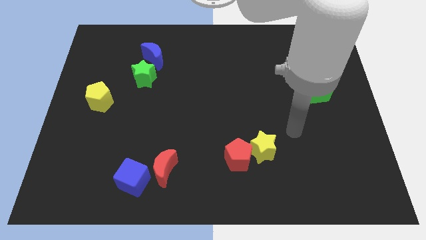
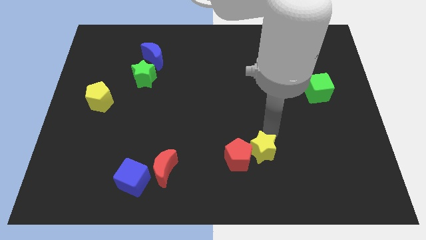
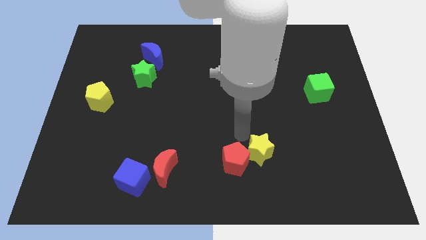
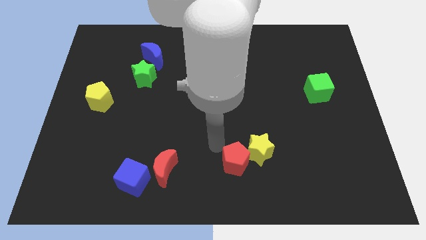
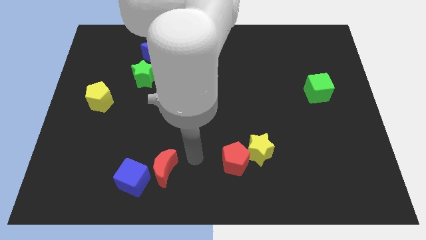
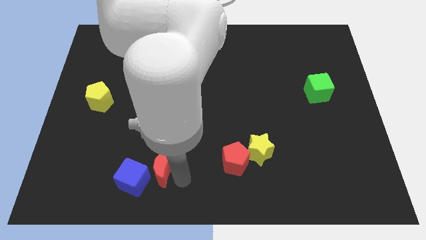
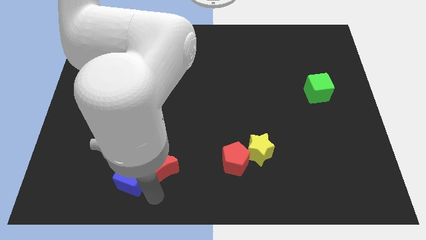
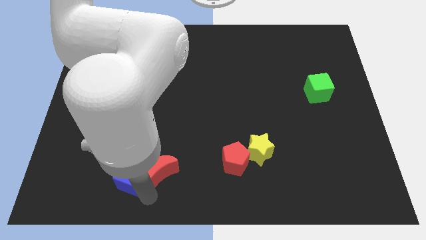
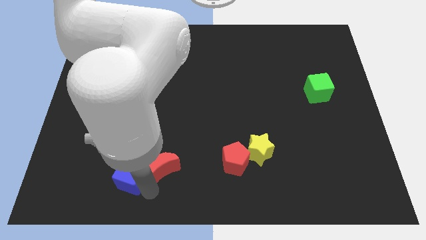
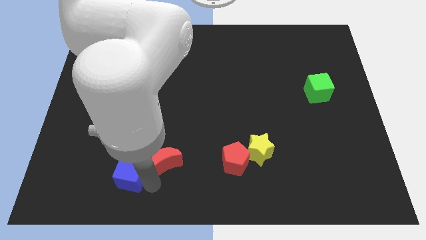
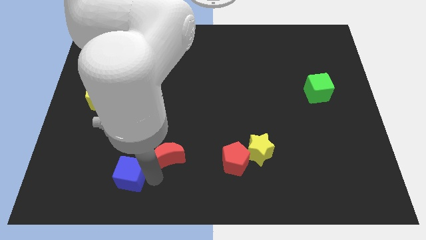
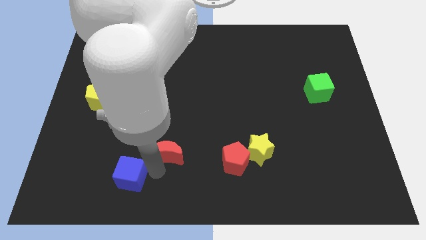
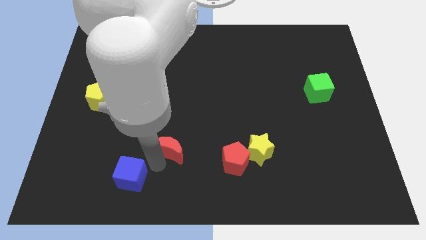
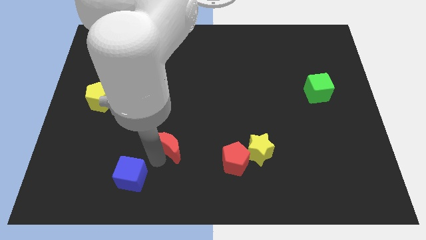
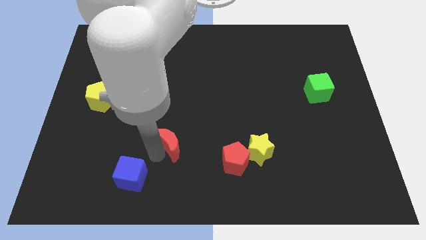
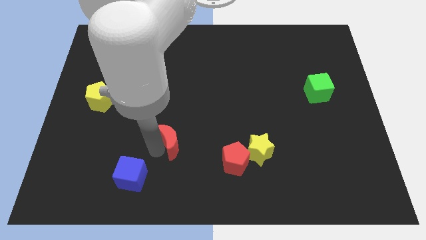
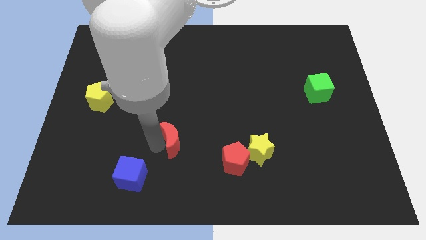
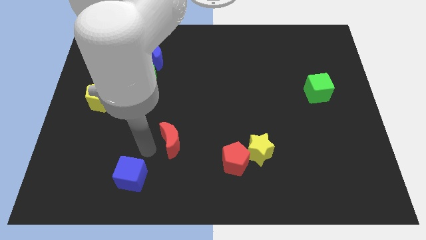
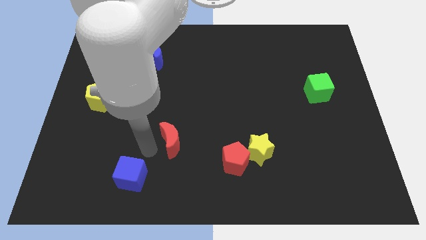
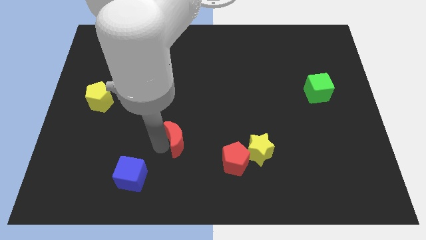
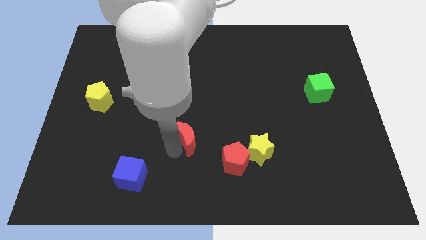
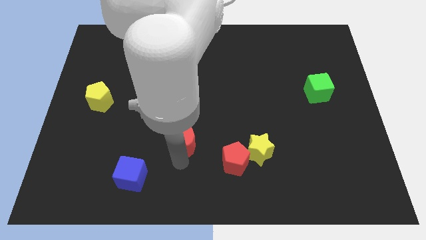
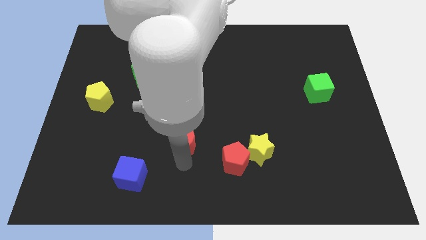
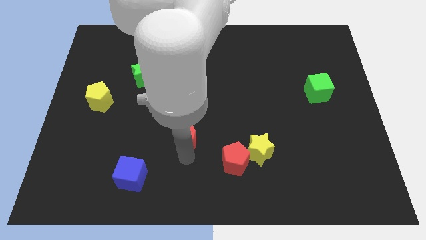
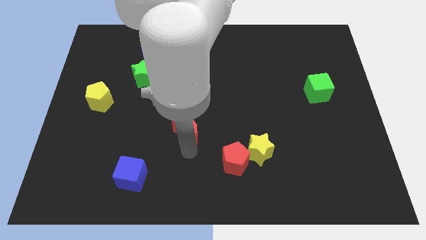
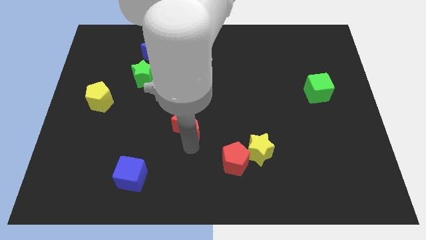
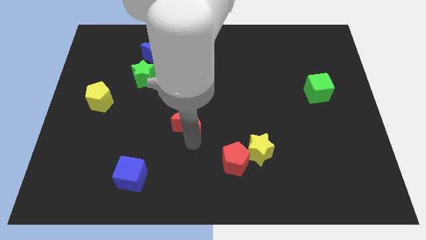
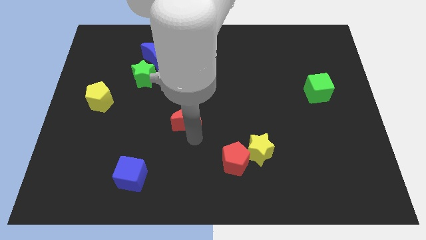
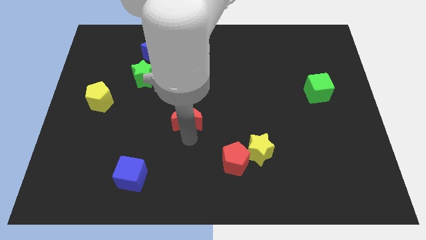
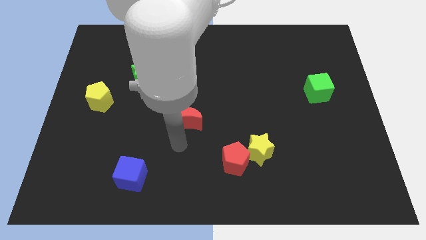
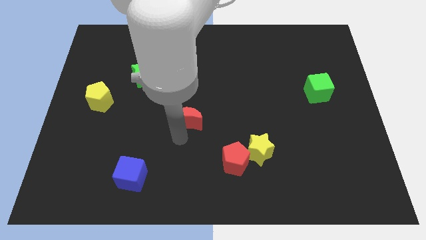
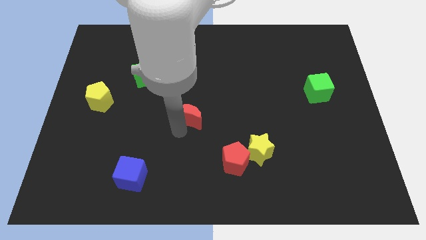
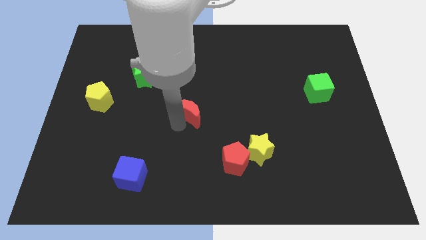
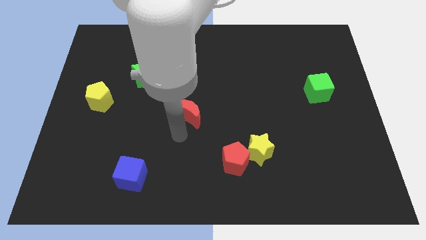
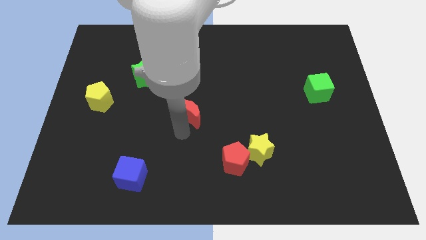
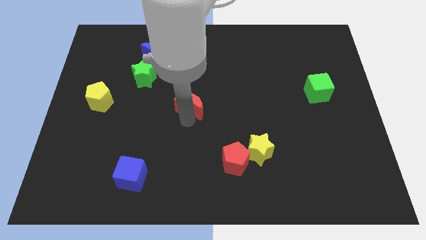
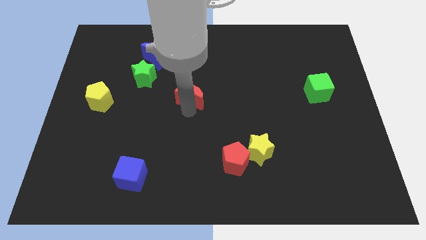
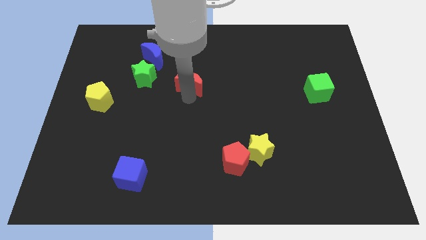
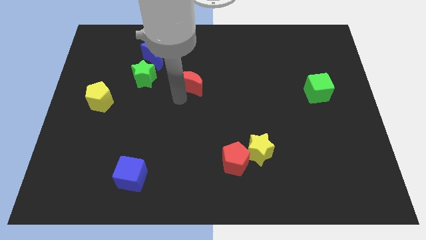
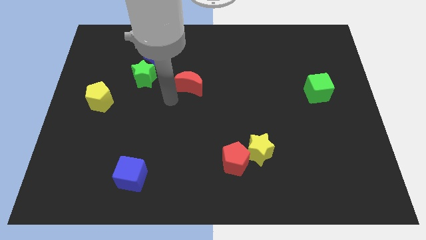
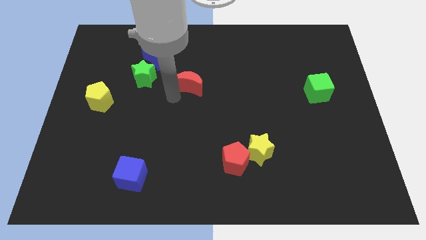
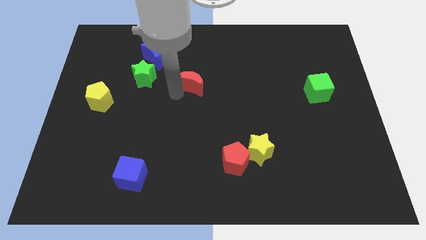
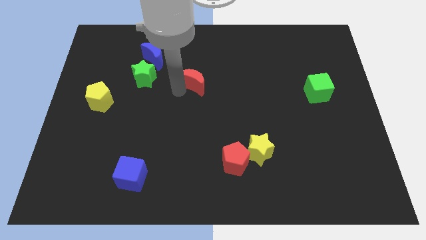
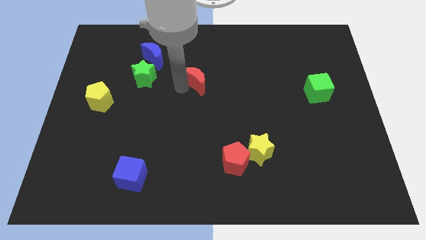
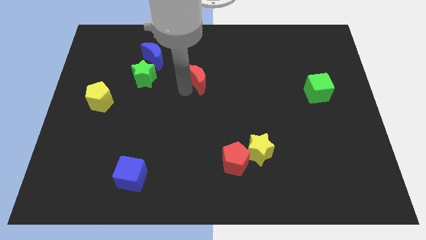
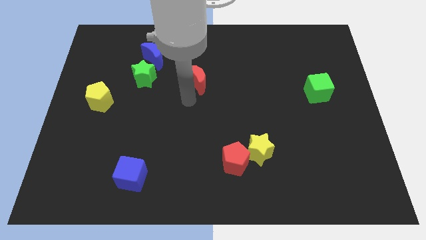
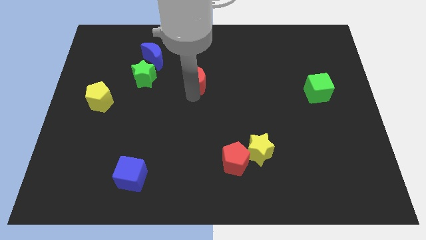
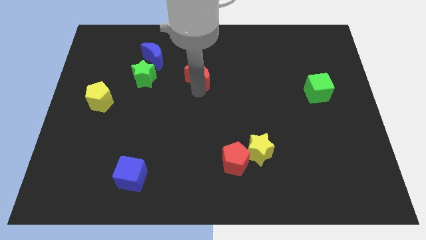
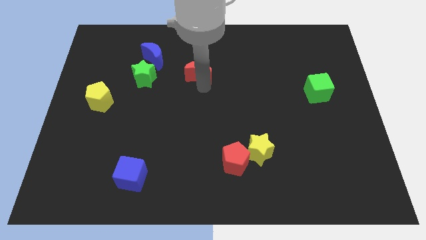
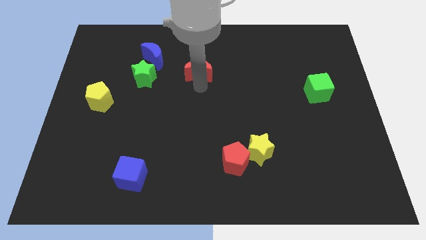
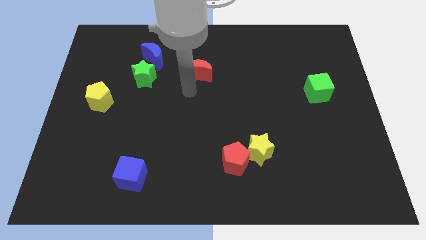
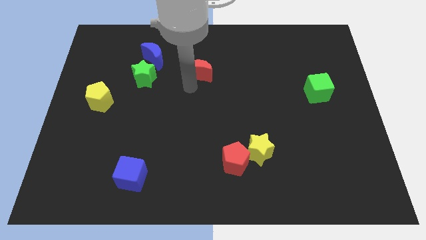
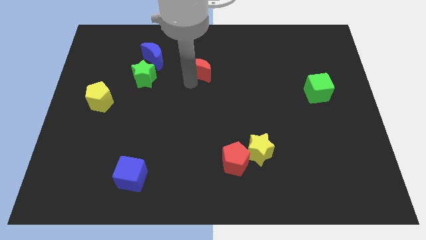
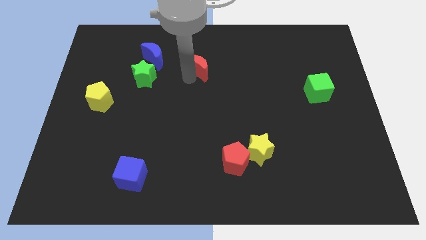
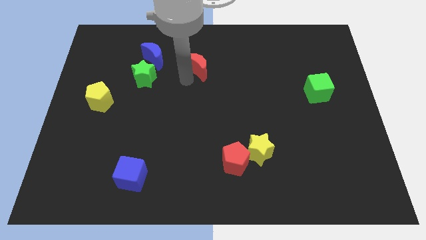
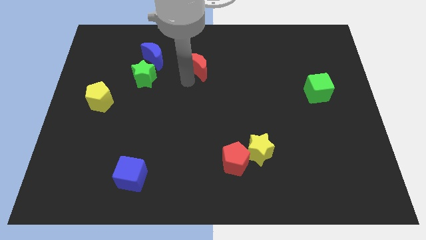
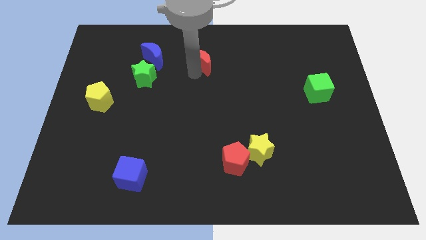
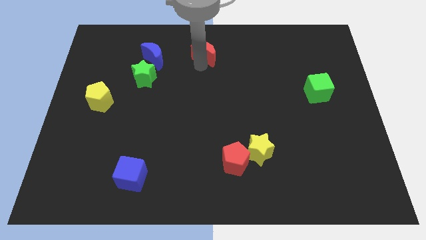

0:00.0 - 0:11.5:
push the red moon to the top side

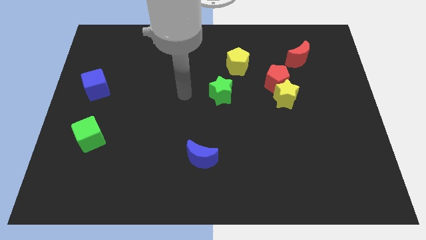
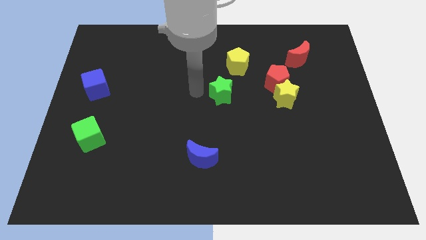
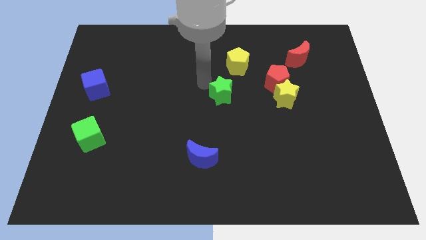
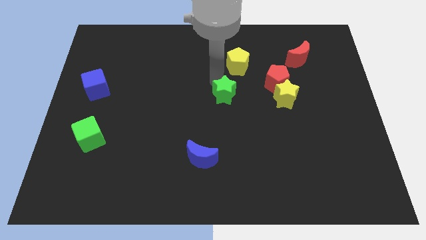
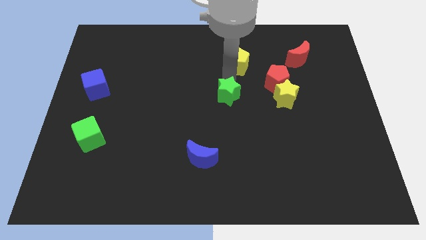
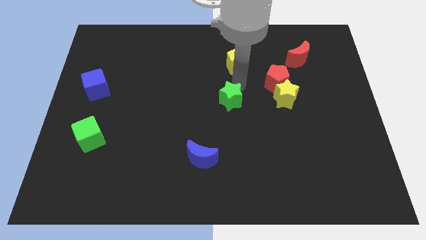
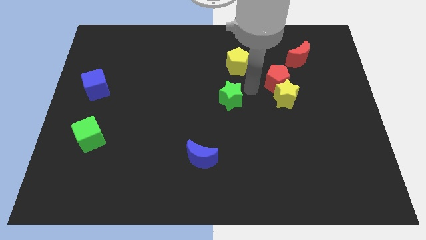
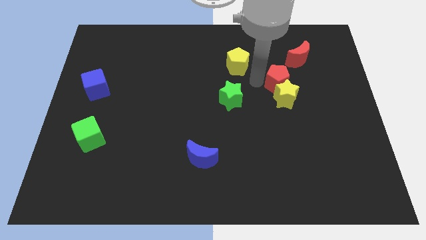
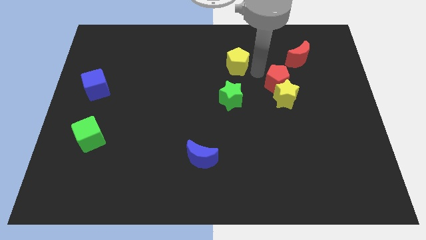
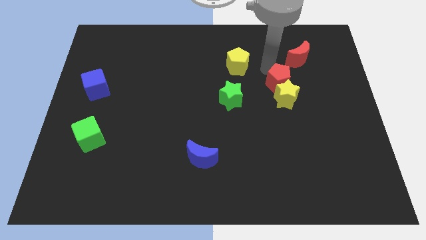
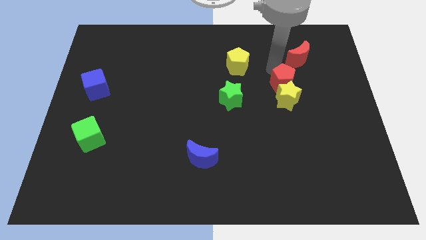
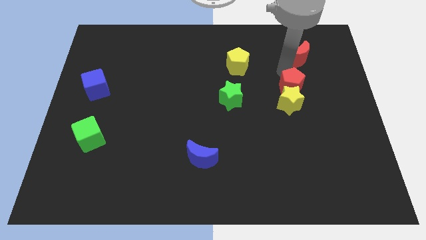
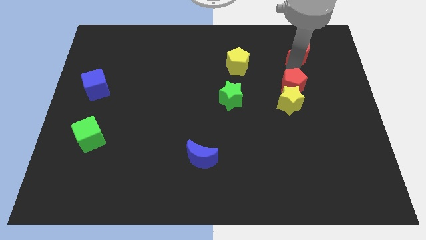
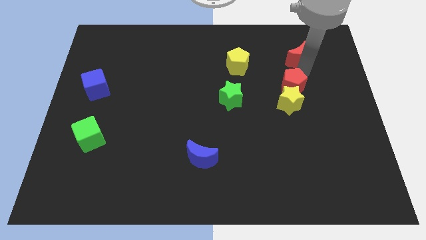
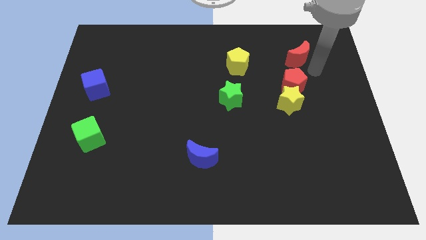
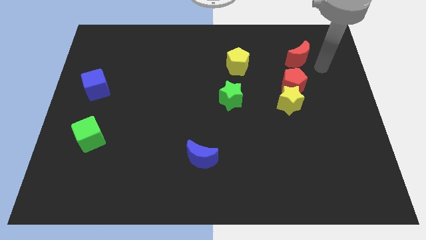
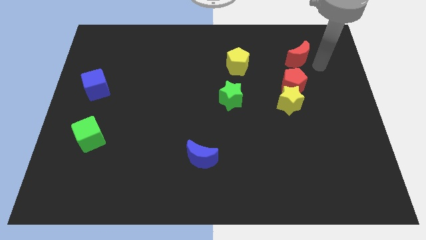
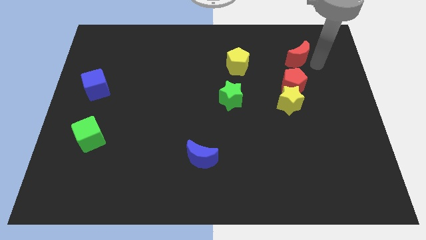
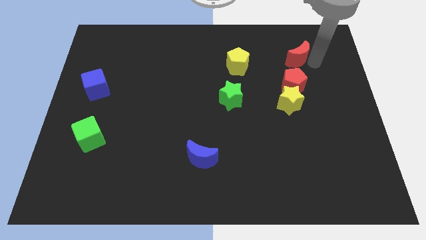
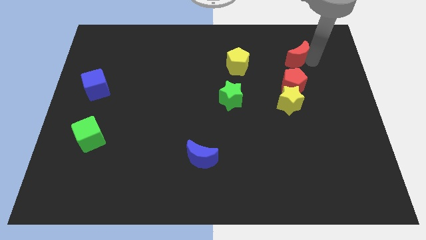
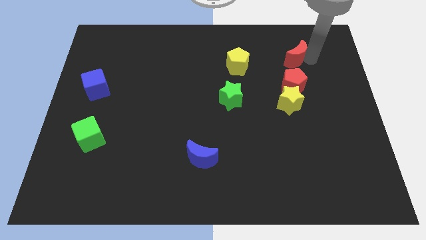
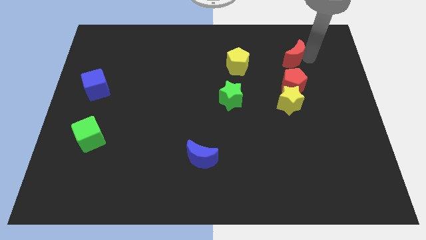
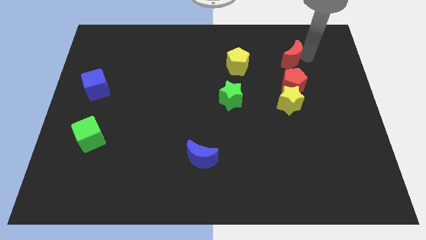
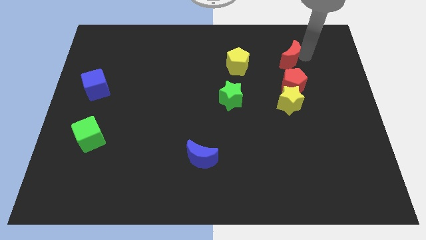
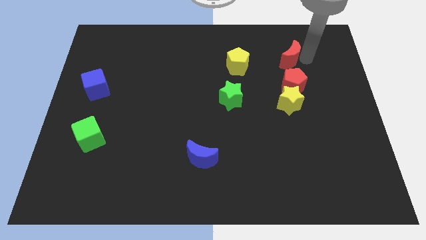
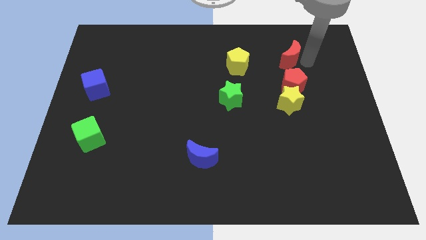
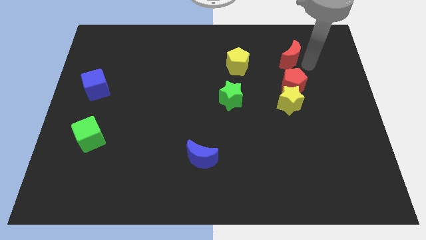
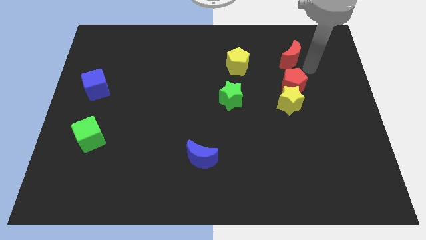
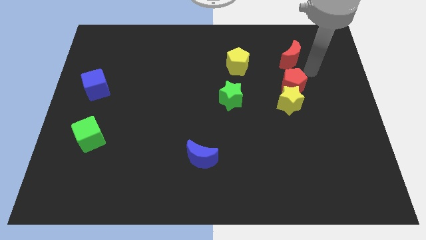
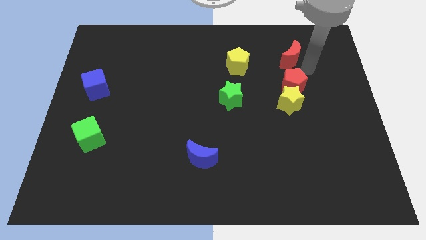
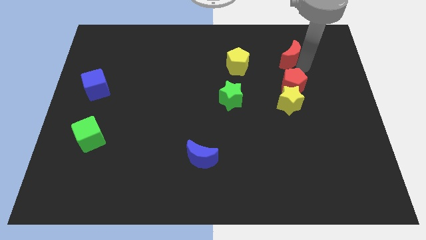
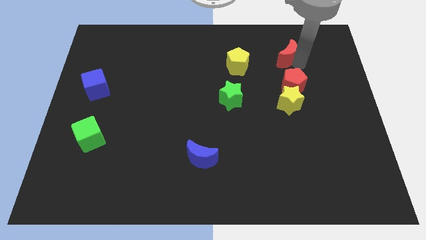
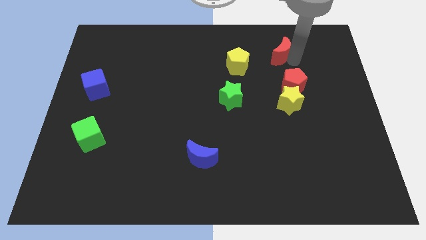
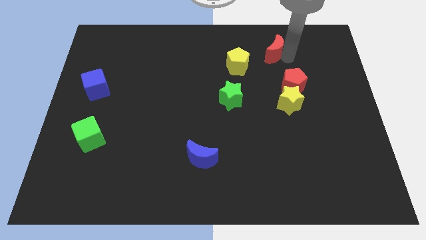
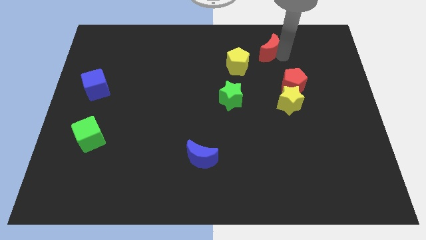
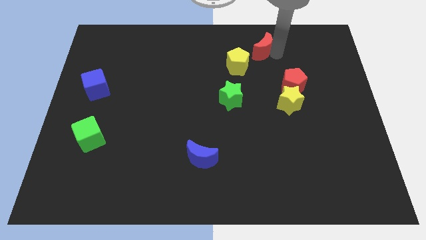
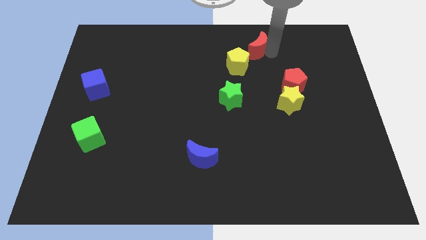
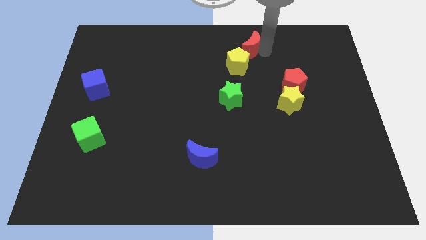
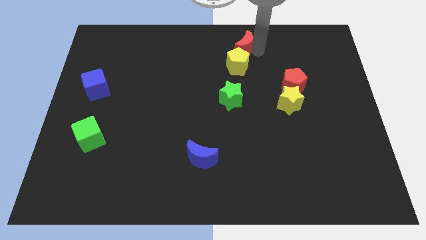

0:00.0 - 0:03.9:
move the red moon to the top side
